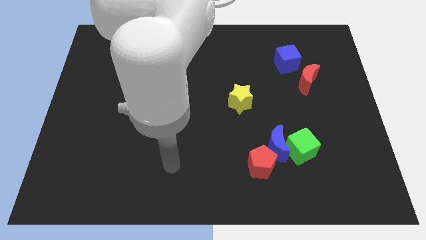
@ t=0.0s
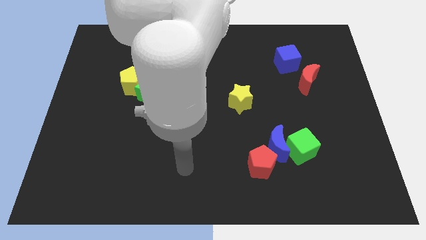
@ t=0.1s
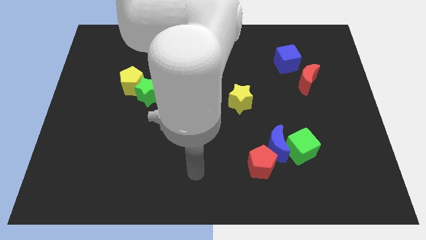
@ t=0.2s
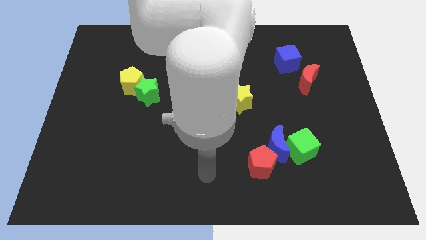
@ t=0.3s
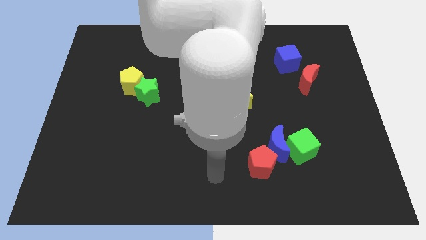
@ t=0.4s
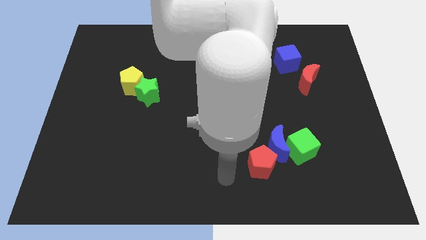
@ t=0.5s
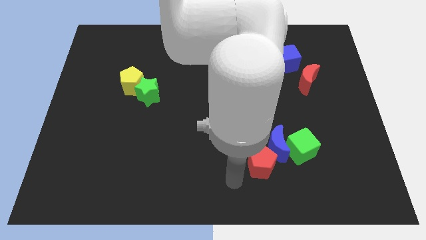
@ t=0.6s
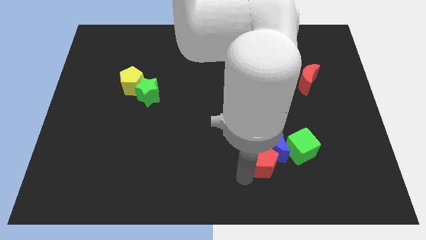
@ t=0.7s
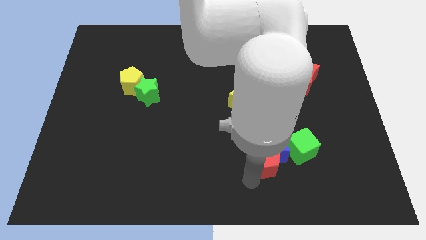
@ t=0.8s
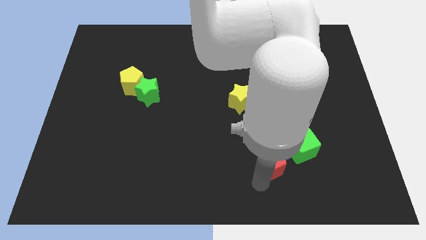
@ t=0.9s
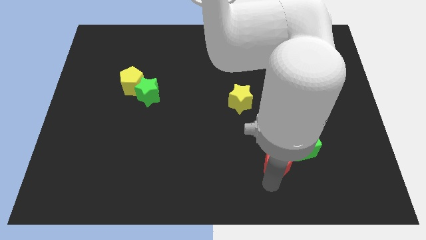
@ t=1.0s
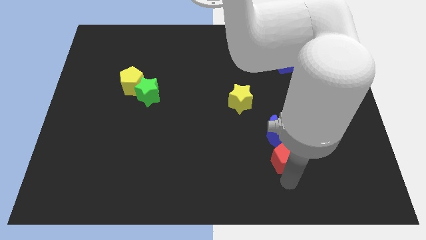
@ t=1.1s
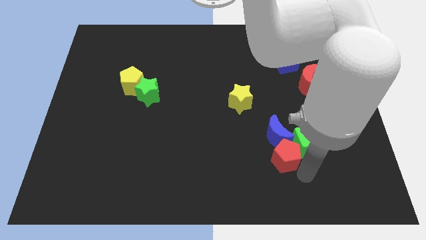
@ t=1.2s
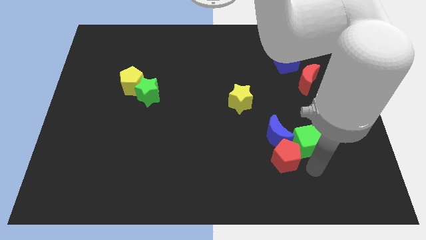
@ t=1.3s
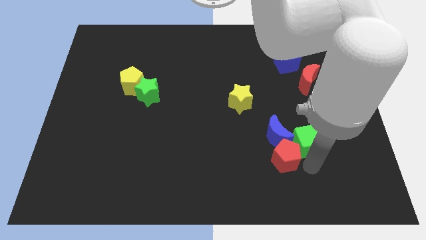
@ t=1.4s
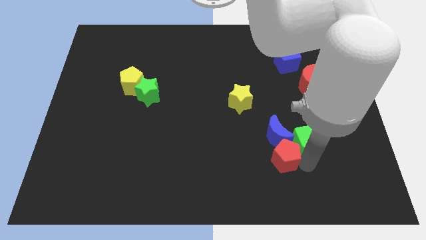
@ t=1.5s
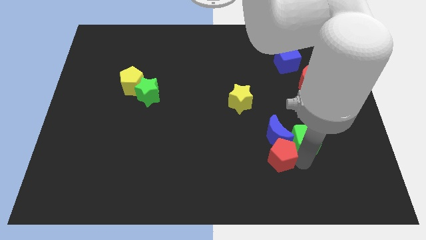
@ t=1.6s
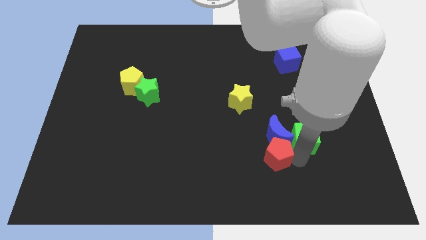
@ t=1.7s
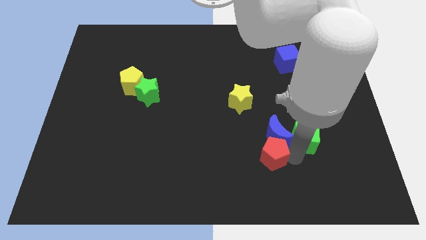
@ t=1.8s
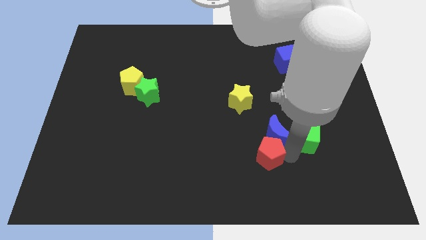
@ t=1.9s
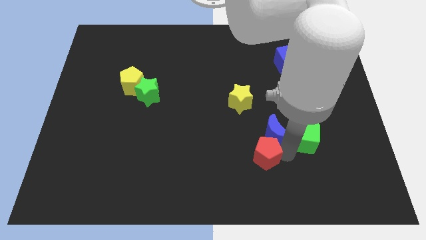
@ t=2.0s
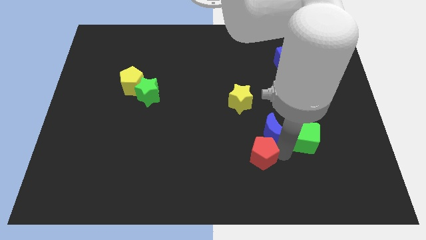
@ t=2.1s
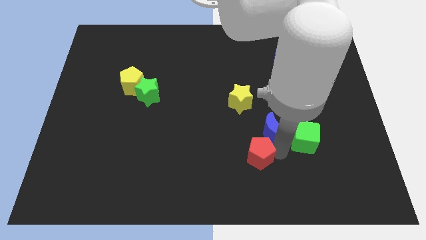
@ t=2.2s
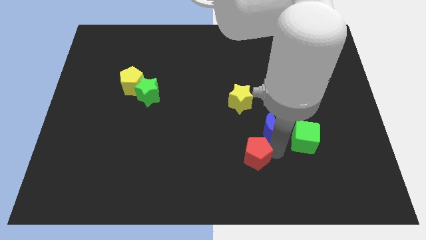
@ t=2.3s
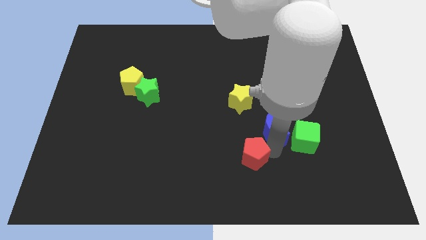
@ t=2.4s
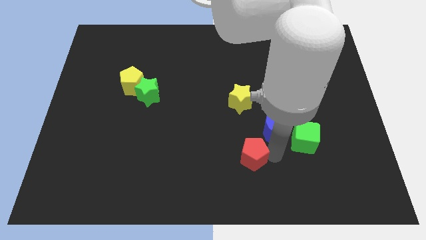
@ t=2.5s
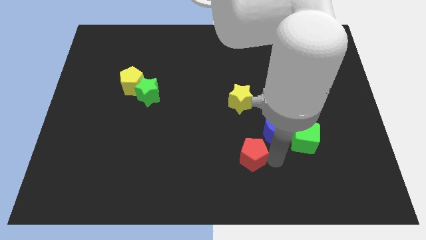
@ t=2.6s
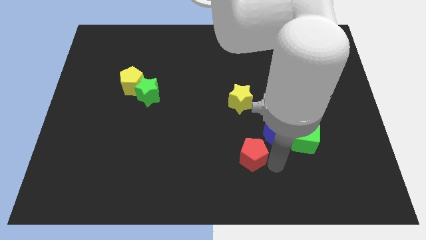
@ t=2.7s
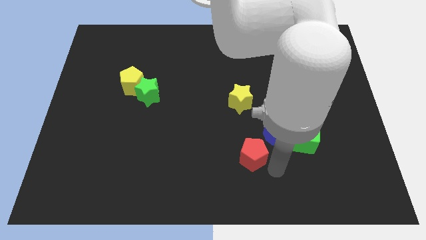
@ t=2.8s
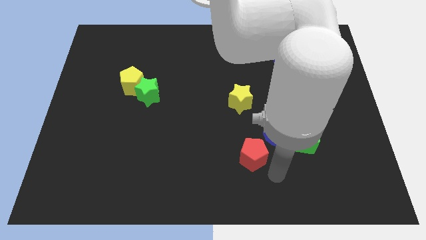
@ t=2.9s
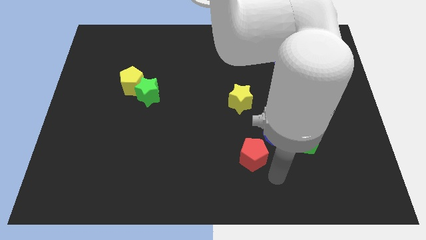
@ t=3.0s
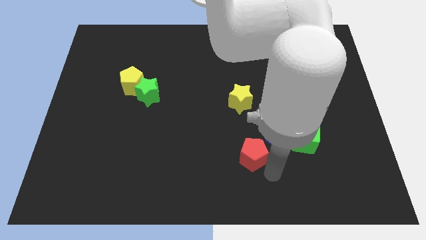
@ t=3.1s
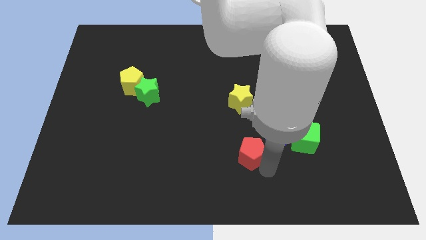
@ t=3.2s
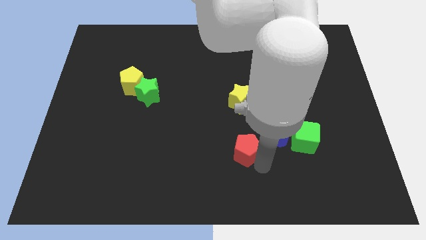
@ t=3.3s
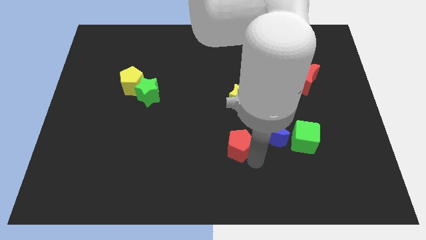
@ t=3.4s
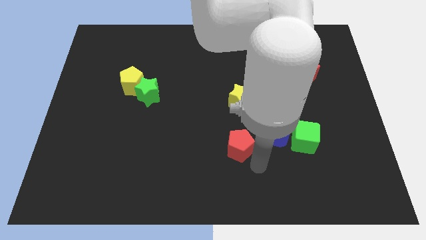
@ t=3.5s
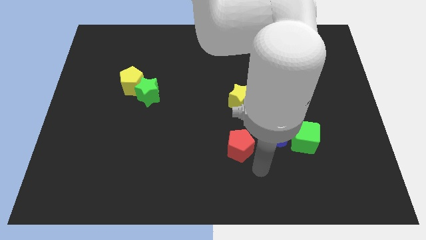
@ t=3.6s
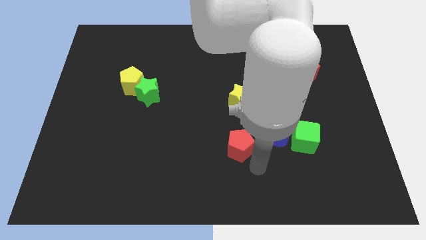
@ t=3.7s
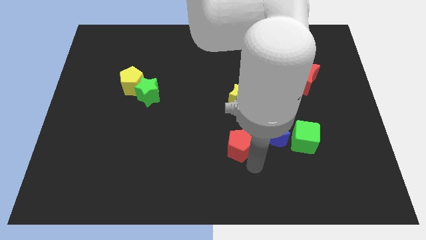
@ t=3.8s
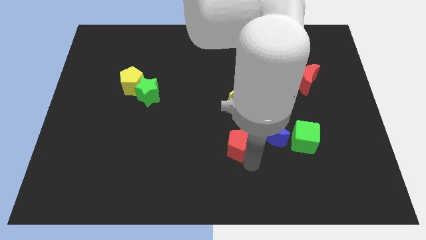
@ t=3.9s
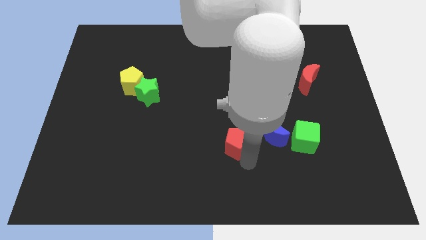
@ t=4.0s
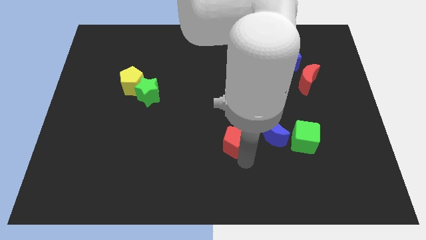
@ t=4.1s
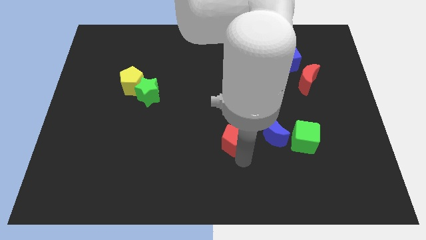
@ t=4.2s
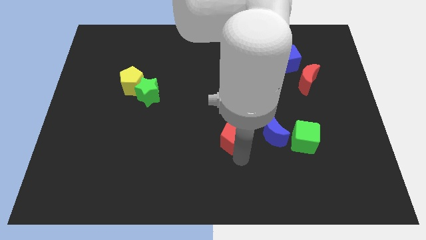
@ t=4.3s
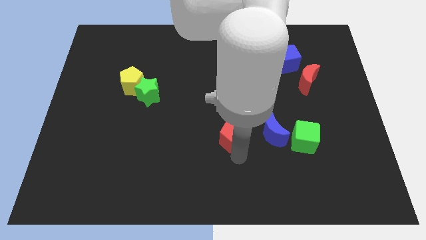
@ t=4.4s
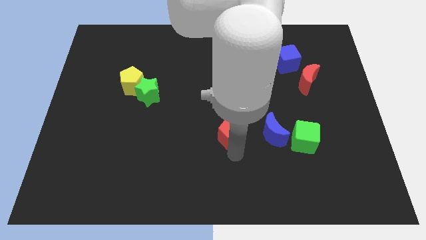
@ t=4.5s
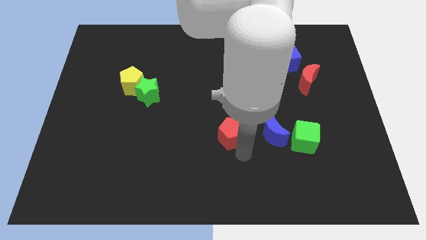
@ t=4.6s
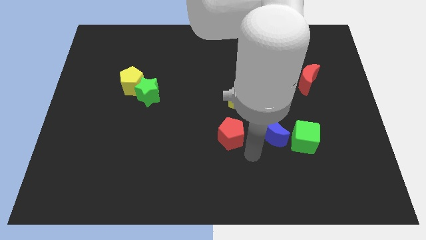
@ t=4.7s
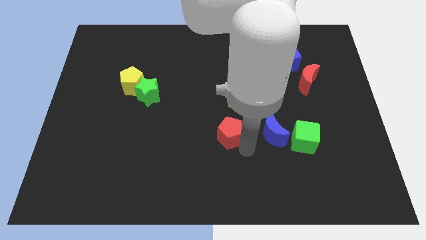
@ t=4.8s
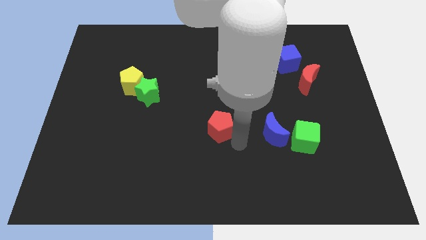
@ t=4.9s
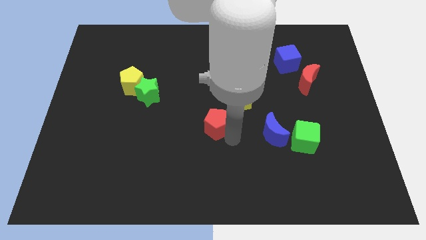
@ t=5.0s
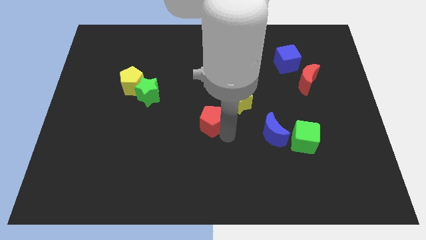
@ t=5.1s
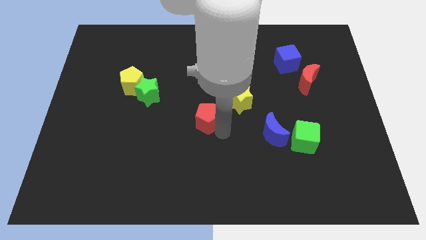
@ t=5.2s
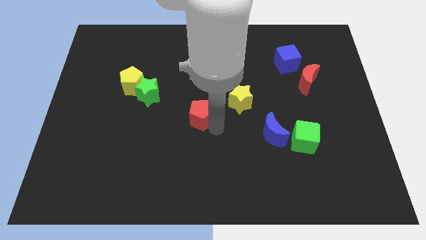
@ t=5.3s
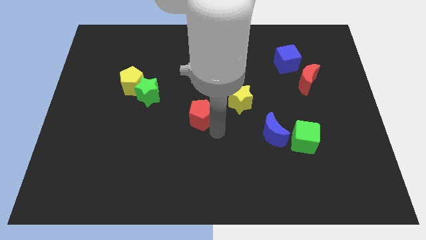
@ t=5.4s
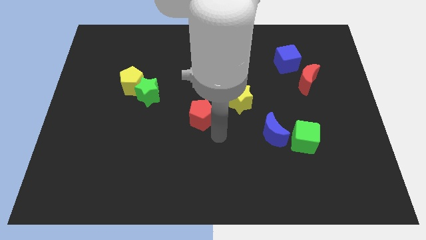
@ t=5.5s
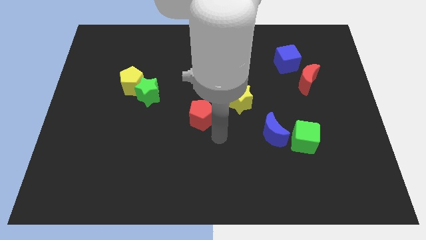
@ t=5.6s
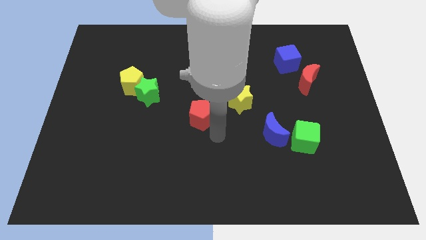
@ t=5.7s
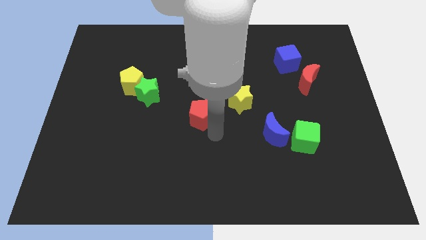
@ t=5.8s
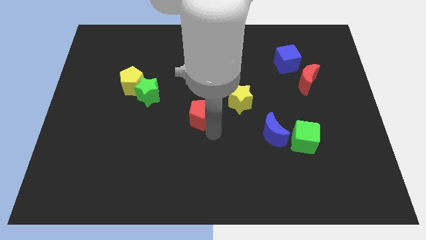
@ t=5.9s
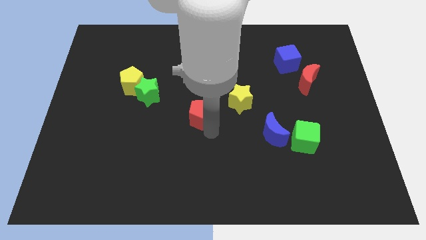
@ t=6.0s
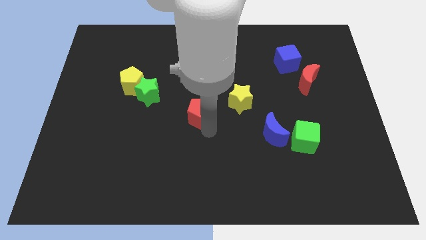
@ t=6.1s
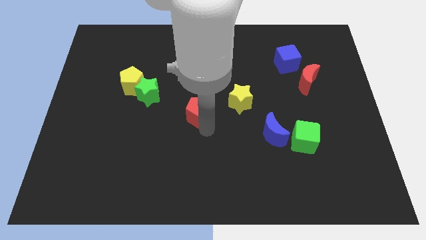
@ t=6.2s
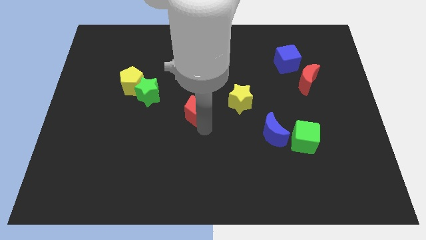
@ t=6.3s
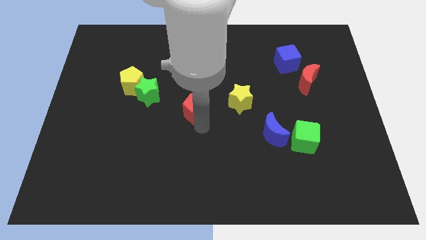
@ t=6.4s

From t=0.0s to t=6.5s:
push the red pentagon upwards and to the left

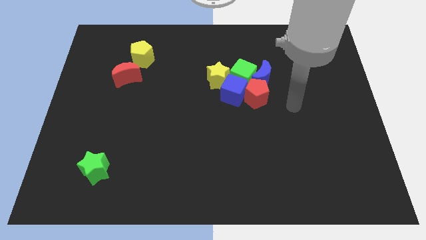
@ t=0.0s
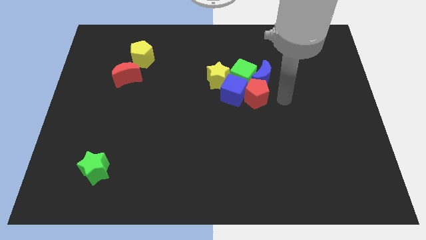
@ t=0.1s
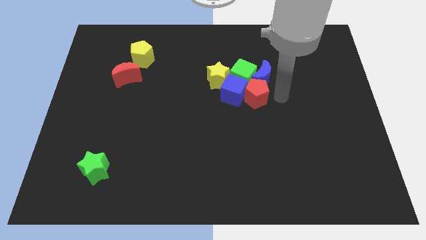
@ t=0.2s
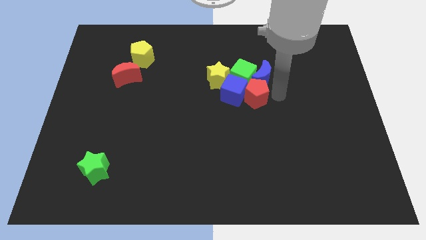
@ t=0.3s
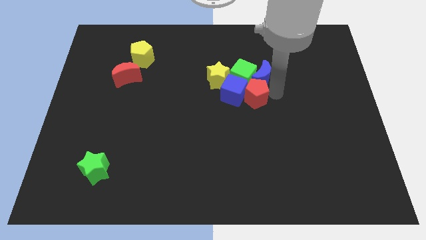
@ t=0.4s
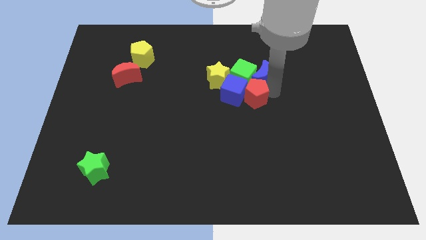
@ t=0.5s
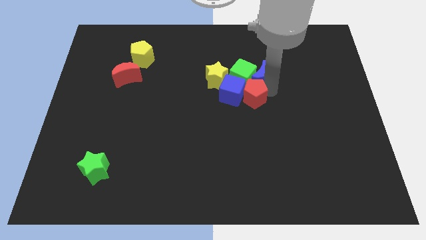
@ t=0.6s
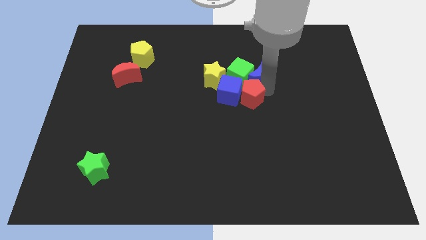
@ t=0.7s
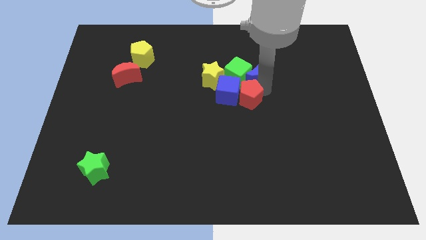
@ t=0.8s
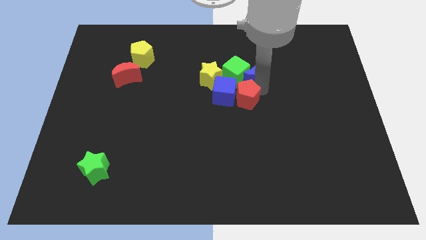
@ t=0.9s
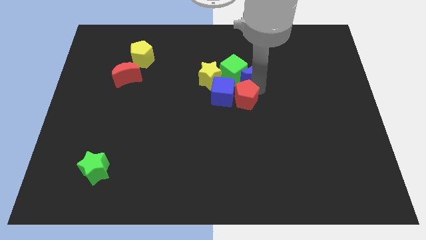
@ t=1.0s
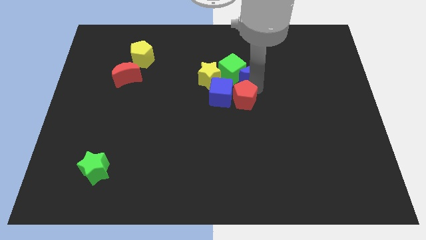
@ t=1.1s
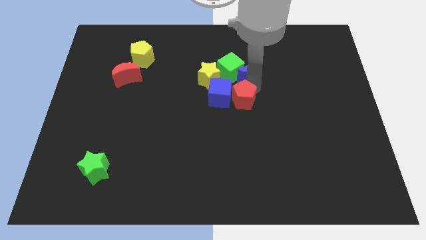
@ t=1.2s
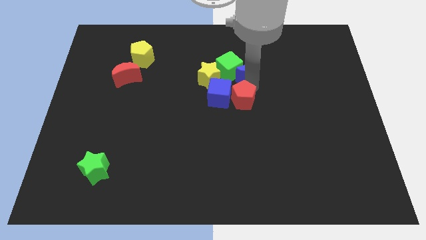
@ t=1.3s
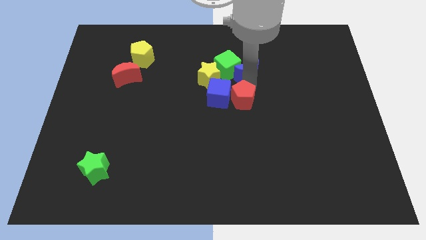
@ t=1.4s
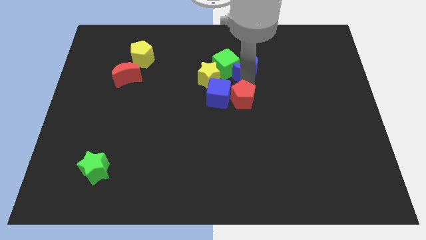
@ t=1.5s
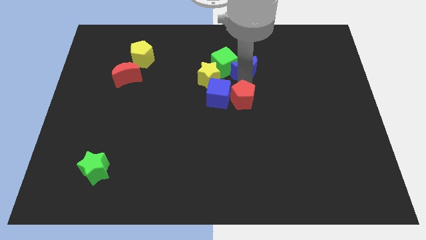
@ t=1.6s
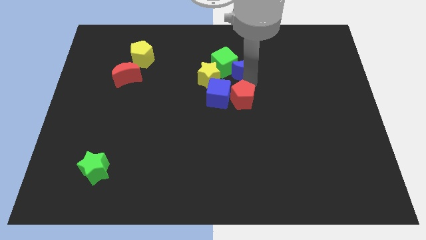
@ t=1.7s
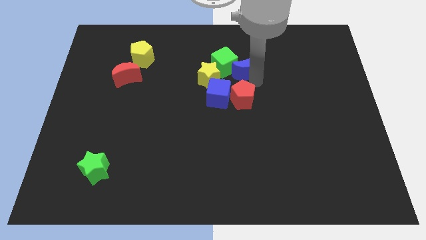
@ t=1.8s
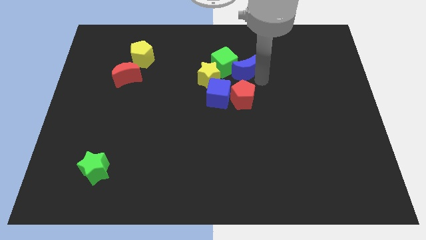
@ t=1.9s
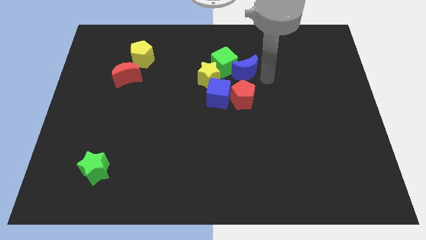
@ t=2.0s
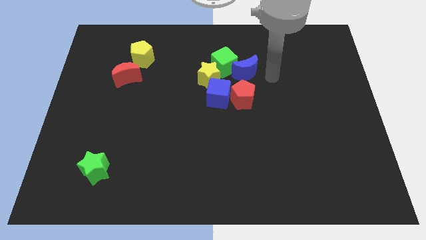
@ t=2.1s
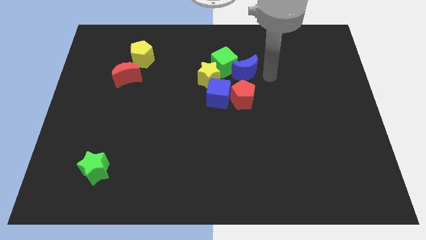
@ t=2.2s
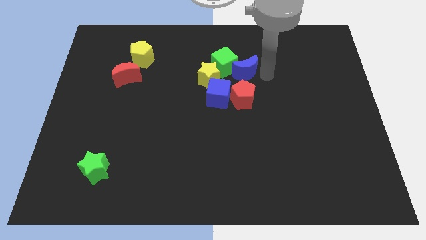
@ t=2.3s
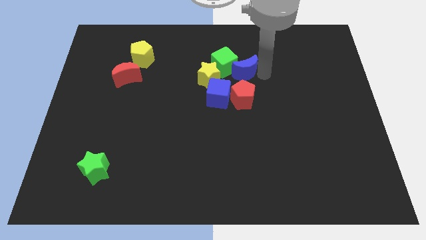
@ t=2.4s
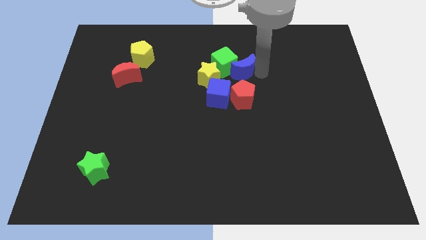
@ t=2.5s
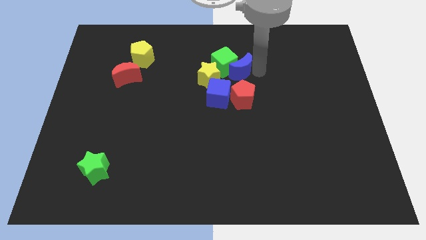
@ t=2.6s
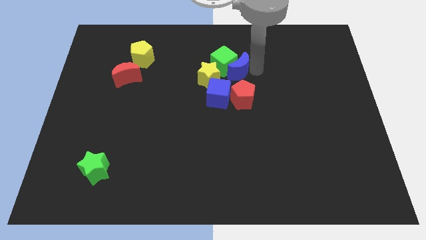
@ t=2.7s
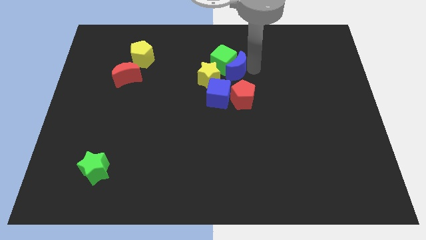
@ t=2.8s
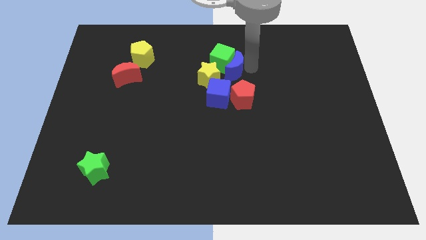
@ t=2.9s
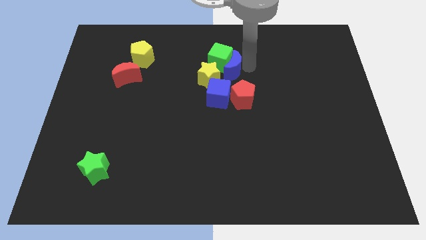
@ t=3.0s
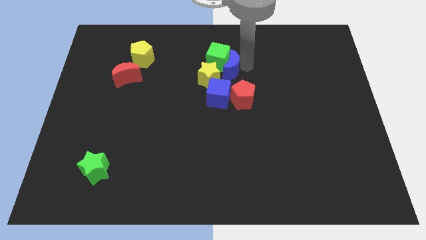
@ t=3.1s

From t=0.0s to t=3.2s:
push the blue moon to the left a bit
